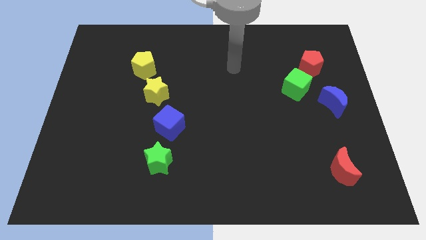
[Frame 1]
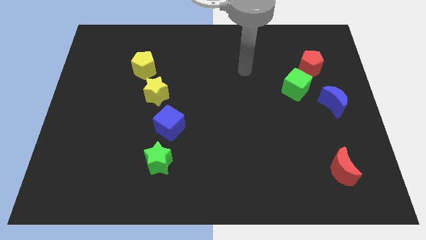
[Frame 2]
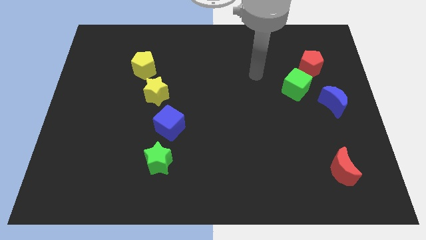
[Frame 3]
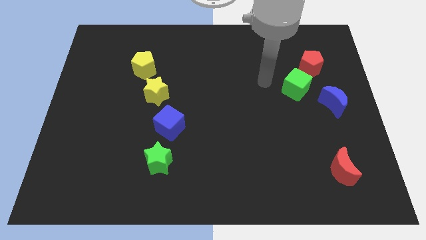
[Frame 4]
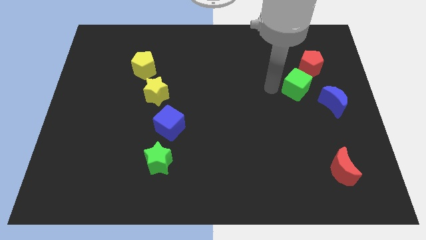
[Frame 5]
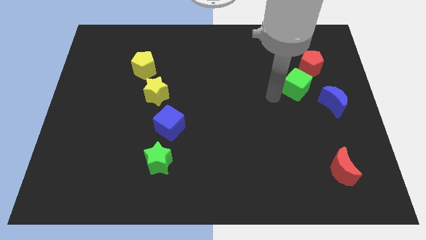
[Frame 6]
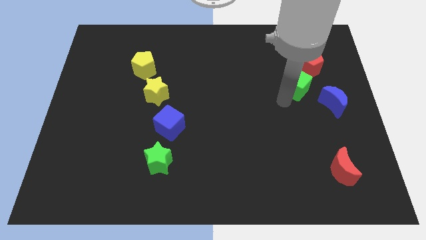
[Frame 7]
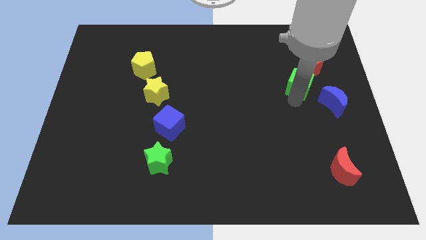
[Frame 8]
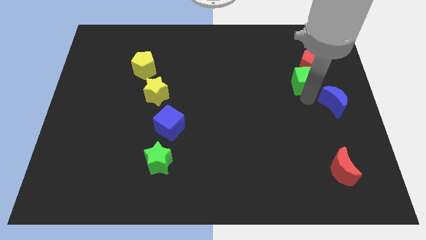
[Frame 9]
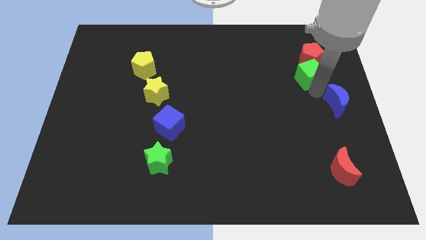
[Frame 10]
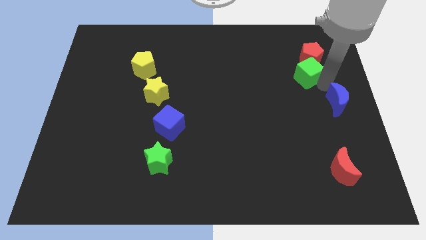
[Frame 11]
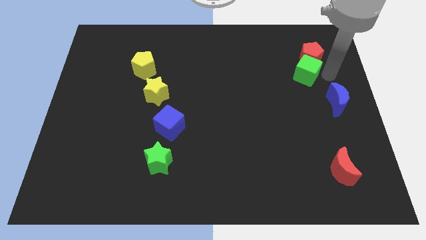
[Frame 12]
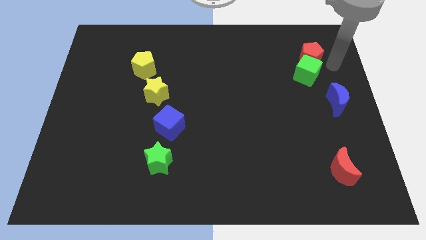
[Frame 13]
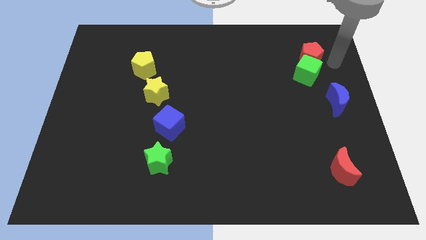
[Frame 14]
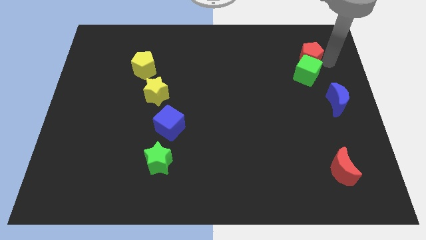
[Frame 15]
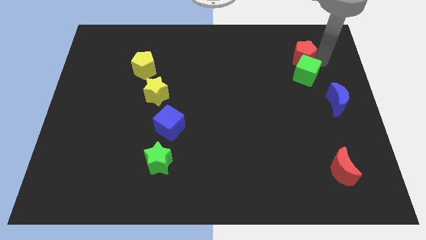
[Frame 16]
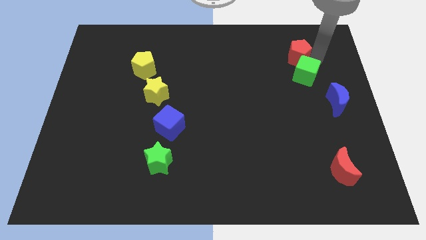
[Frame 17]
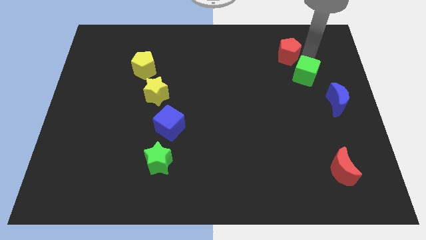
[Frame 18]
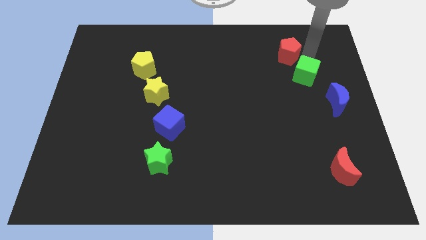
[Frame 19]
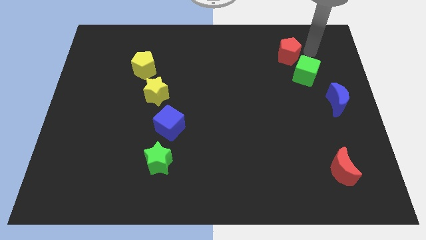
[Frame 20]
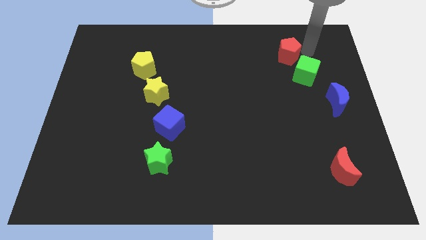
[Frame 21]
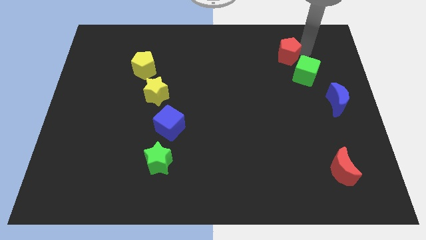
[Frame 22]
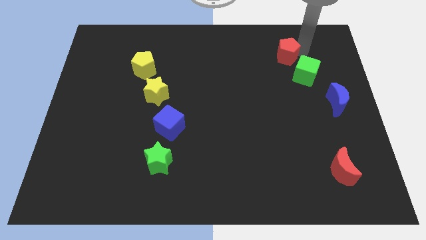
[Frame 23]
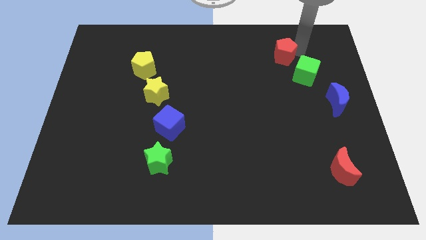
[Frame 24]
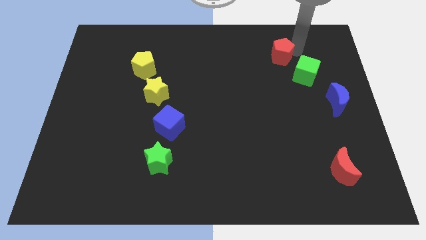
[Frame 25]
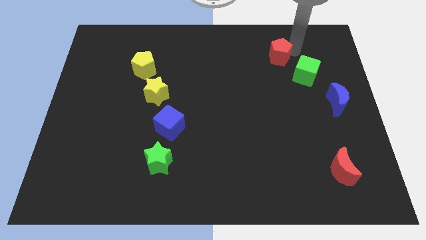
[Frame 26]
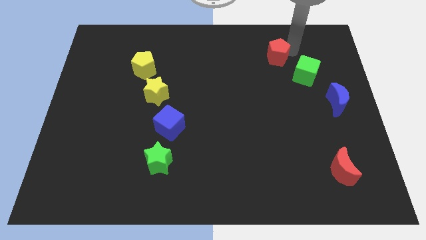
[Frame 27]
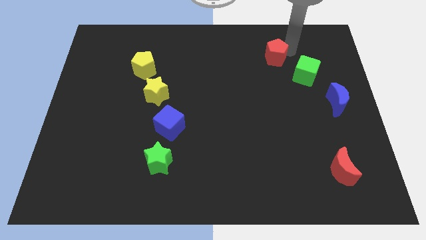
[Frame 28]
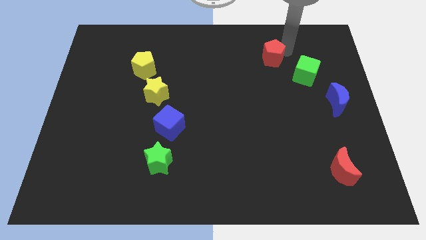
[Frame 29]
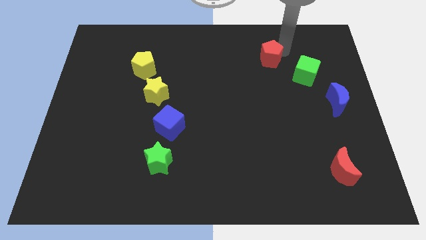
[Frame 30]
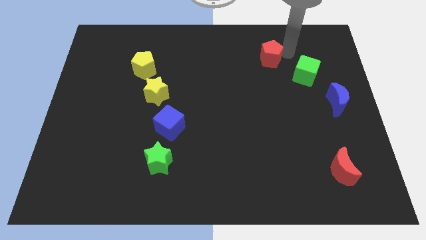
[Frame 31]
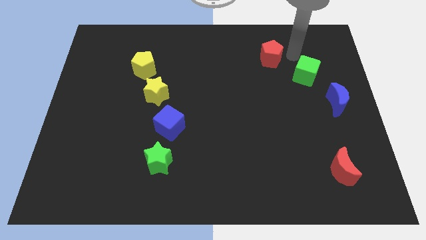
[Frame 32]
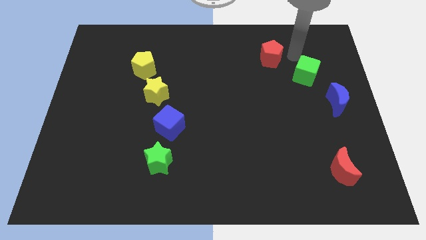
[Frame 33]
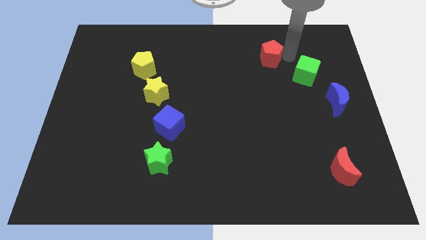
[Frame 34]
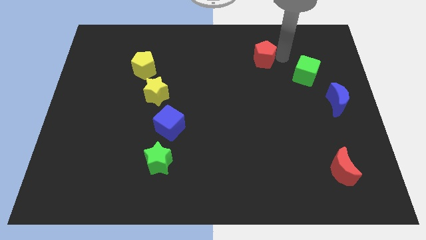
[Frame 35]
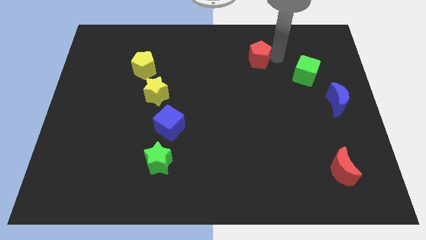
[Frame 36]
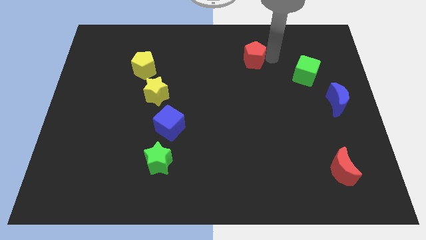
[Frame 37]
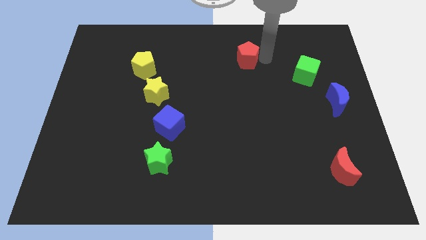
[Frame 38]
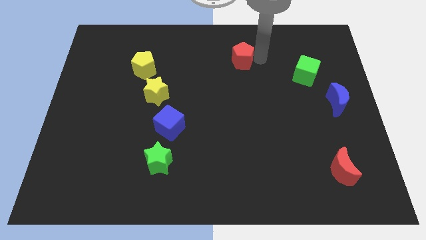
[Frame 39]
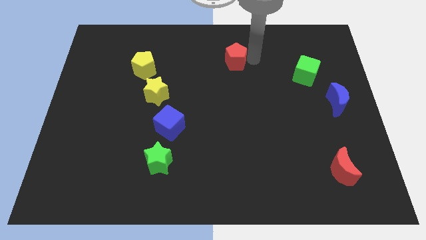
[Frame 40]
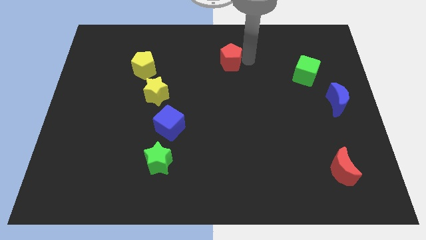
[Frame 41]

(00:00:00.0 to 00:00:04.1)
move the red pentagon to the left

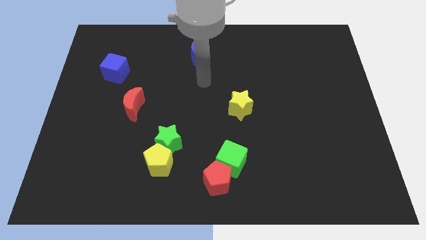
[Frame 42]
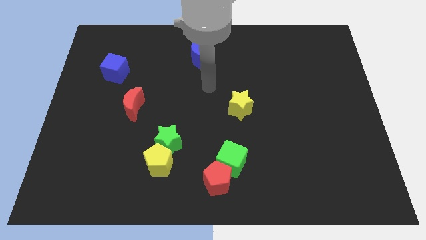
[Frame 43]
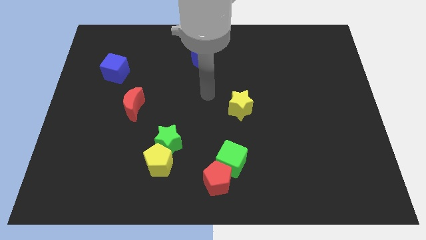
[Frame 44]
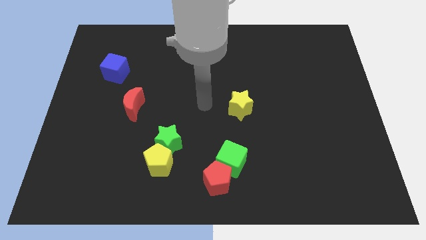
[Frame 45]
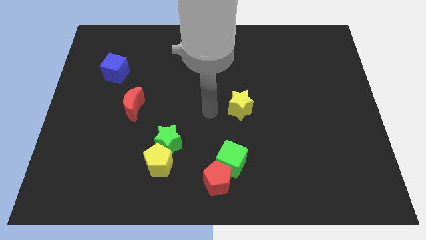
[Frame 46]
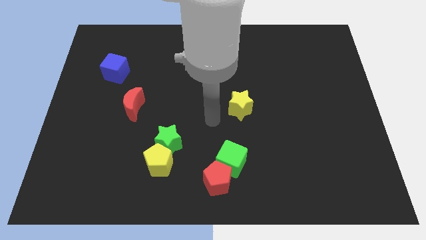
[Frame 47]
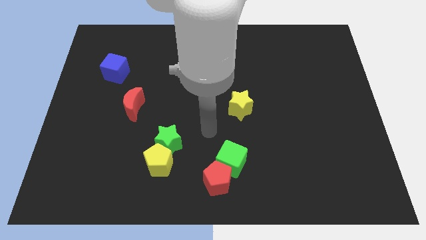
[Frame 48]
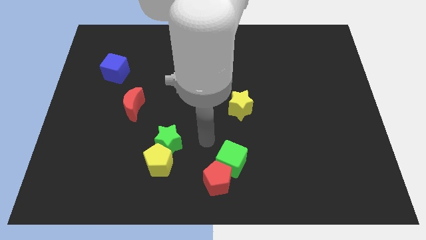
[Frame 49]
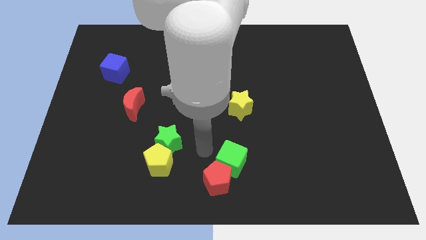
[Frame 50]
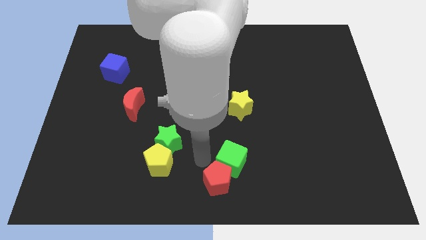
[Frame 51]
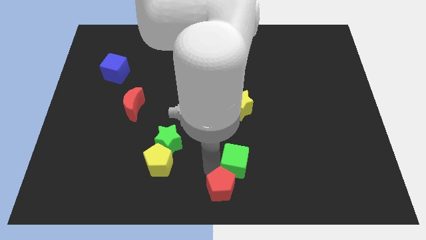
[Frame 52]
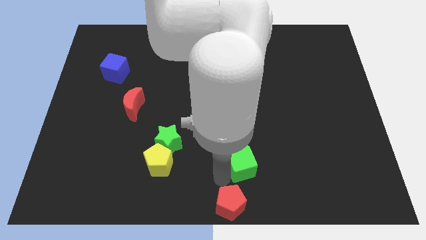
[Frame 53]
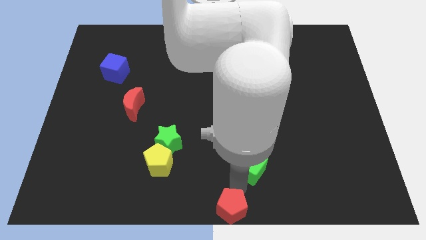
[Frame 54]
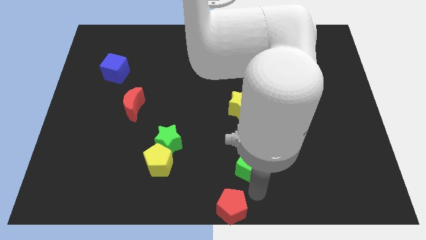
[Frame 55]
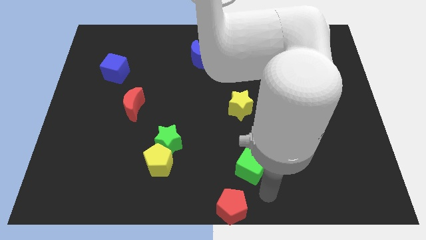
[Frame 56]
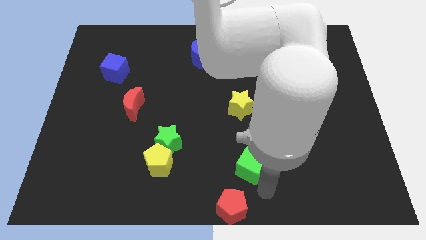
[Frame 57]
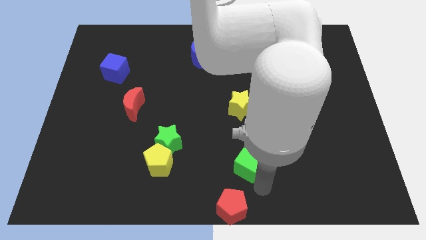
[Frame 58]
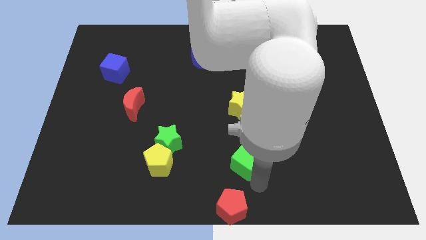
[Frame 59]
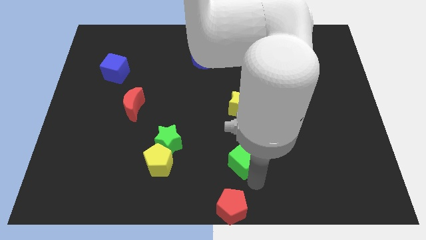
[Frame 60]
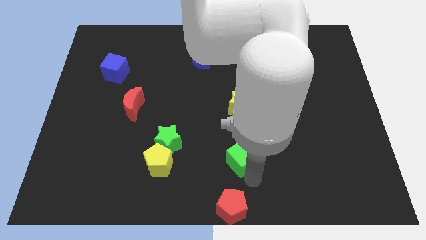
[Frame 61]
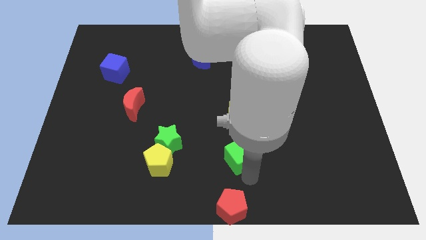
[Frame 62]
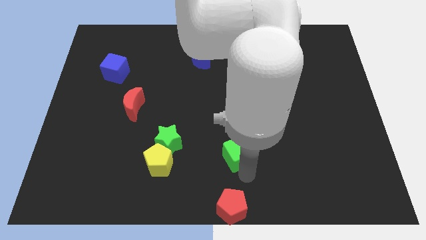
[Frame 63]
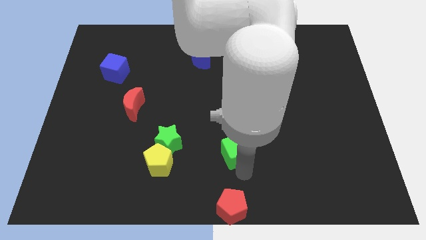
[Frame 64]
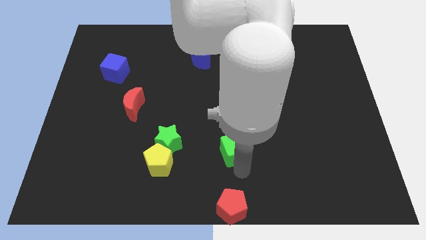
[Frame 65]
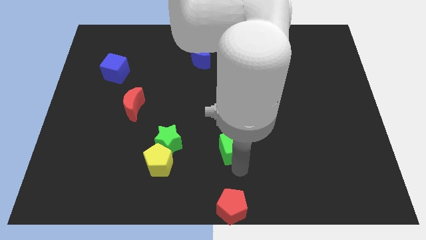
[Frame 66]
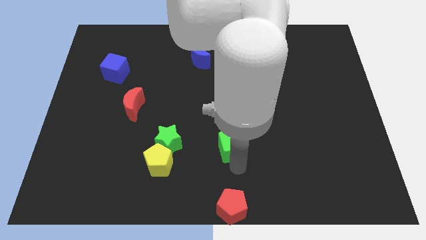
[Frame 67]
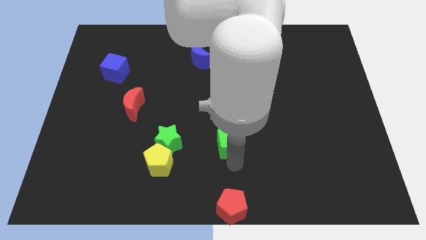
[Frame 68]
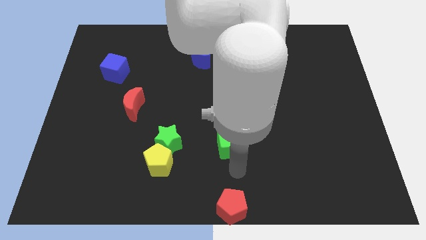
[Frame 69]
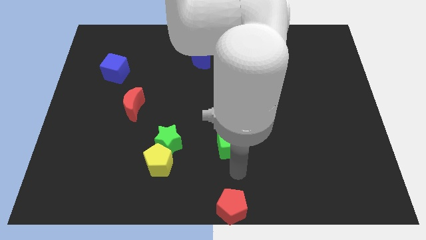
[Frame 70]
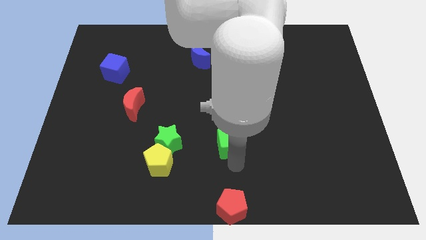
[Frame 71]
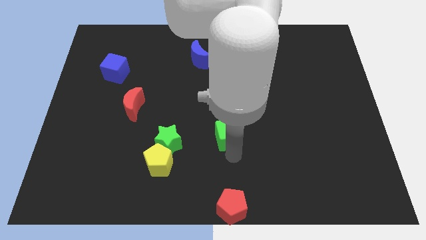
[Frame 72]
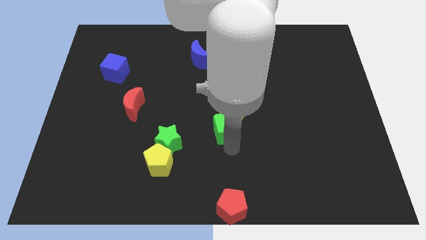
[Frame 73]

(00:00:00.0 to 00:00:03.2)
slightly slide the green cube up

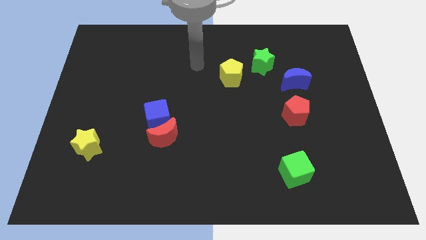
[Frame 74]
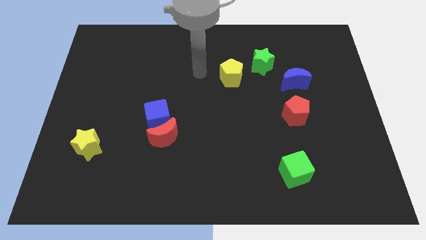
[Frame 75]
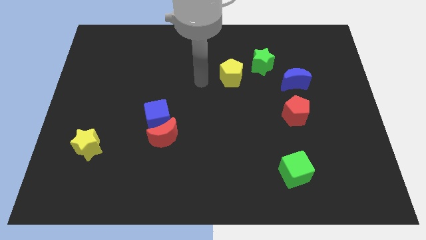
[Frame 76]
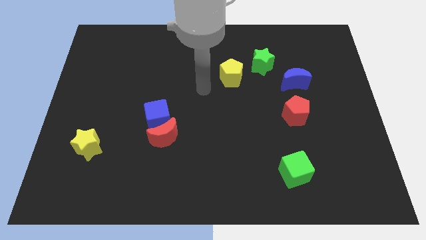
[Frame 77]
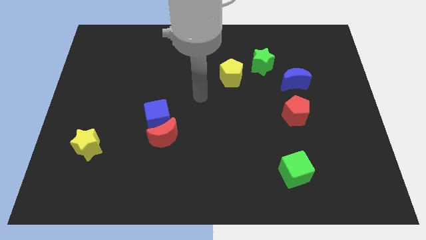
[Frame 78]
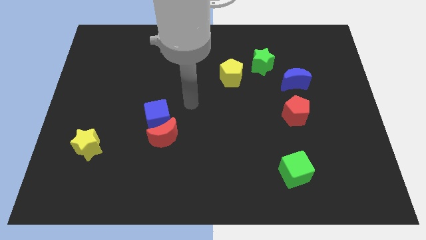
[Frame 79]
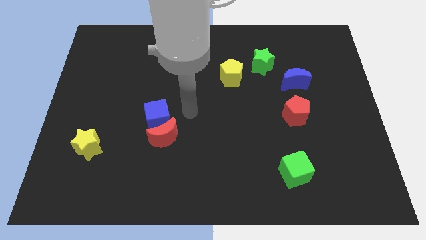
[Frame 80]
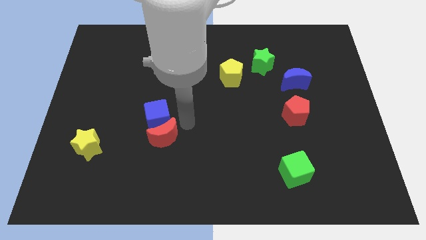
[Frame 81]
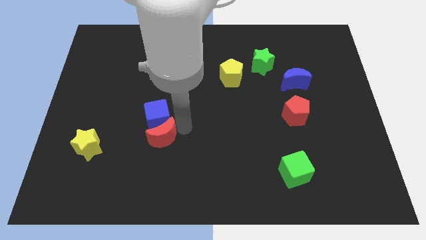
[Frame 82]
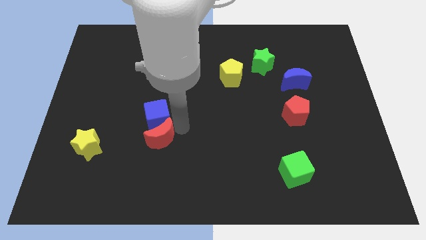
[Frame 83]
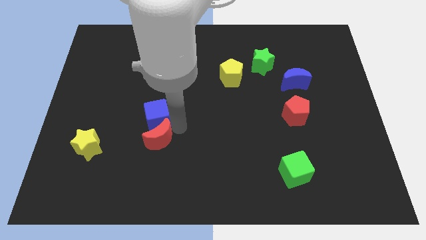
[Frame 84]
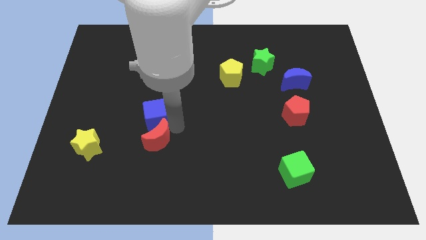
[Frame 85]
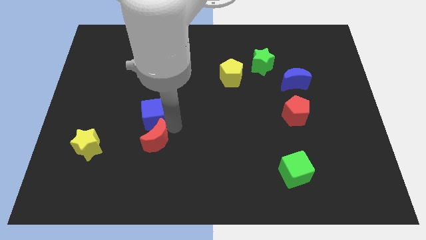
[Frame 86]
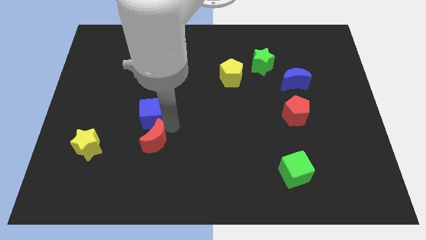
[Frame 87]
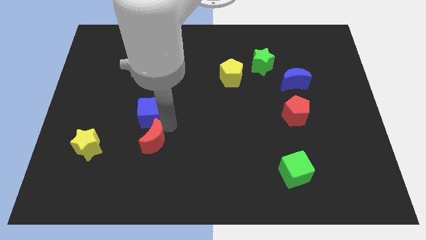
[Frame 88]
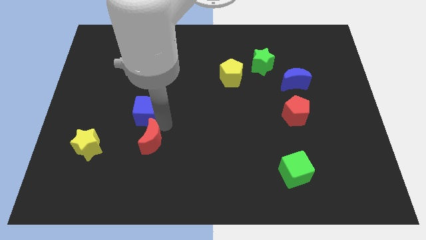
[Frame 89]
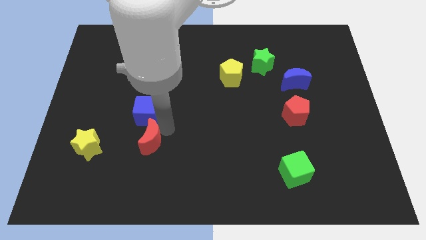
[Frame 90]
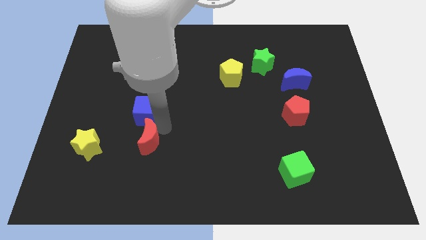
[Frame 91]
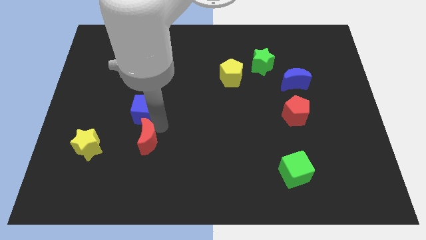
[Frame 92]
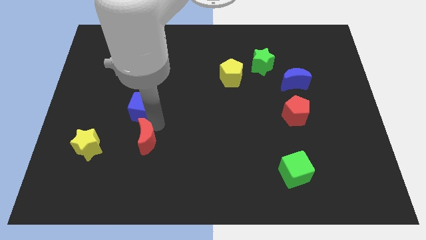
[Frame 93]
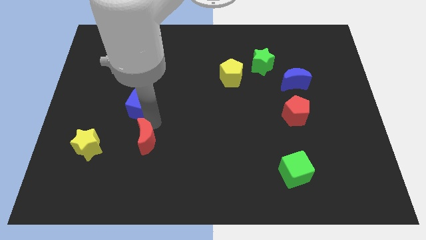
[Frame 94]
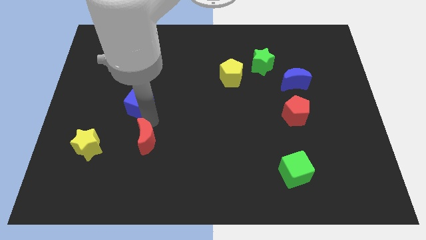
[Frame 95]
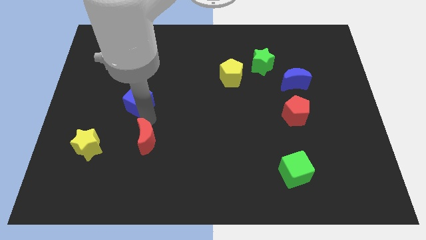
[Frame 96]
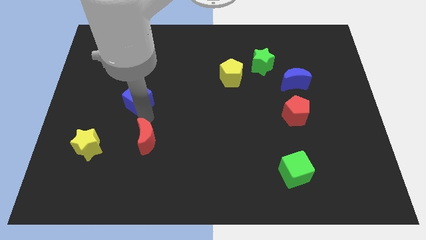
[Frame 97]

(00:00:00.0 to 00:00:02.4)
push the blue cube up and then to the left slightly
